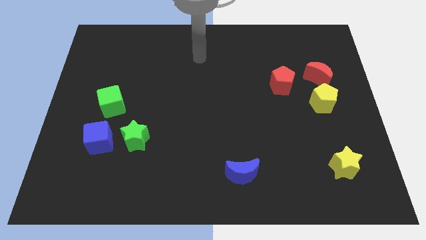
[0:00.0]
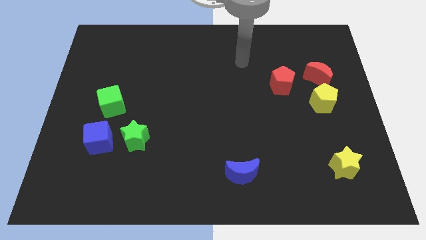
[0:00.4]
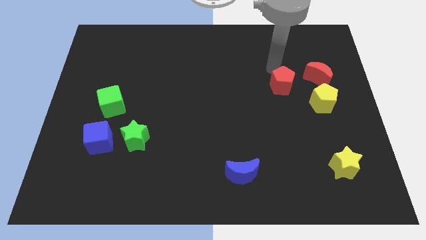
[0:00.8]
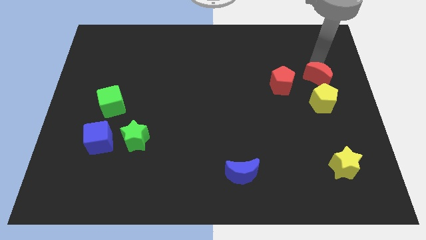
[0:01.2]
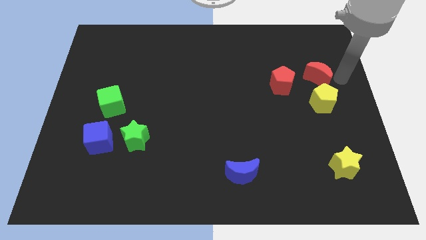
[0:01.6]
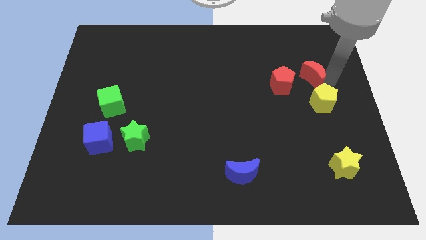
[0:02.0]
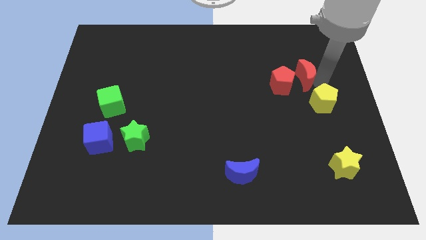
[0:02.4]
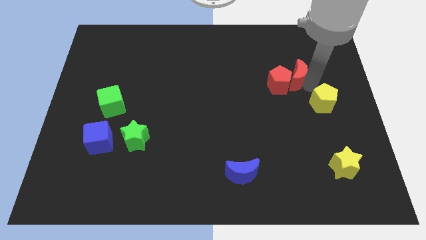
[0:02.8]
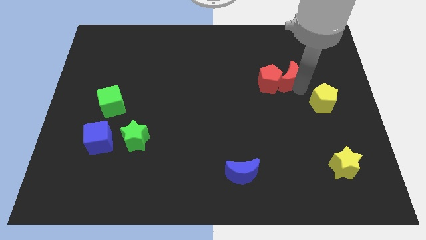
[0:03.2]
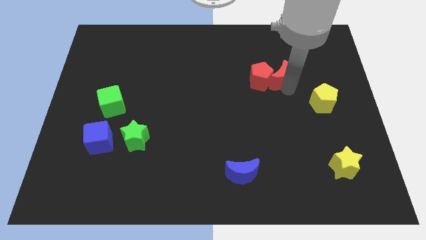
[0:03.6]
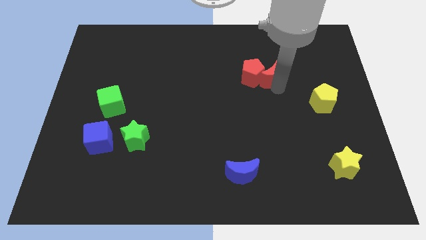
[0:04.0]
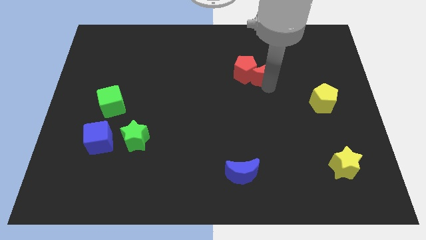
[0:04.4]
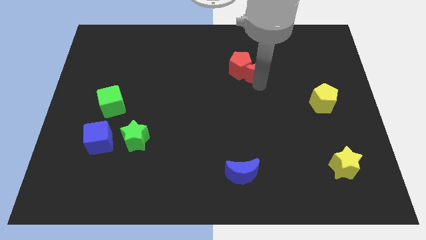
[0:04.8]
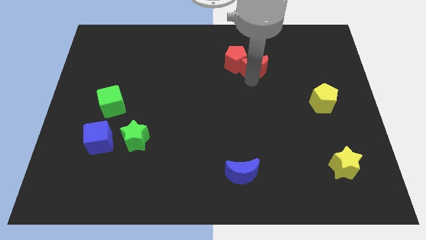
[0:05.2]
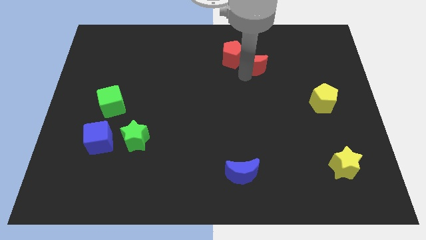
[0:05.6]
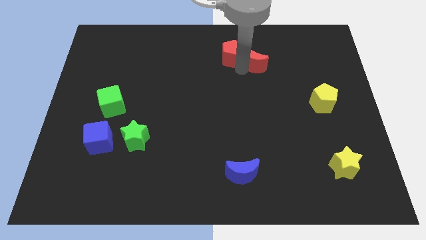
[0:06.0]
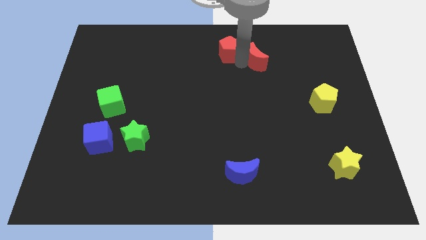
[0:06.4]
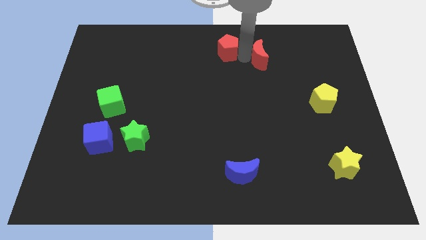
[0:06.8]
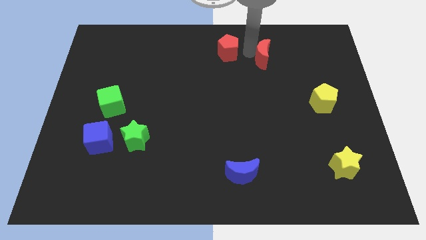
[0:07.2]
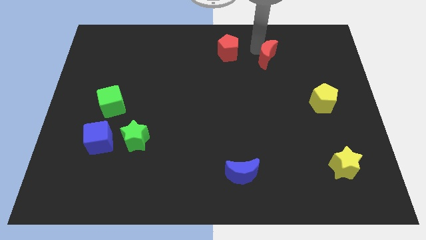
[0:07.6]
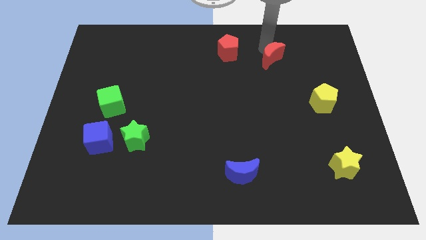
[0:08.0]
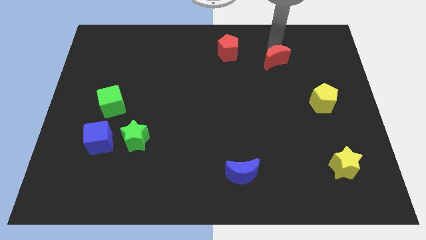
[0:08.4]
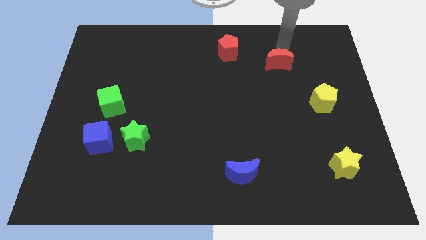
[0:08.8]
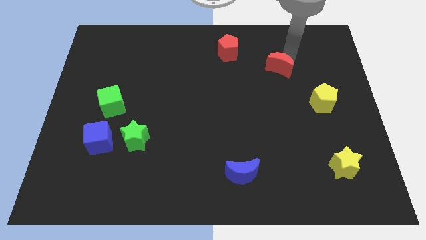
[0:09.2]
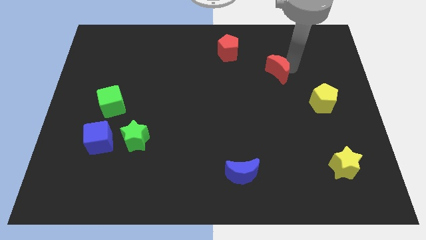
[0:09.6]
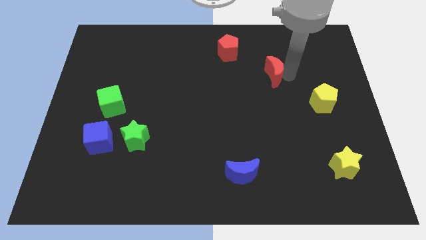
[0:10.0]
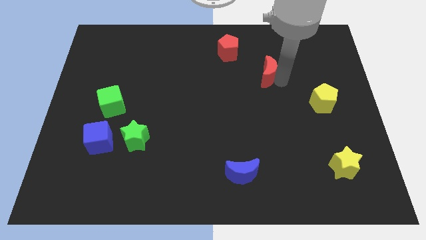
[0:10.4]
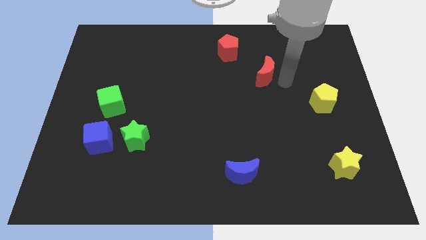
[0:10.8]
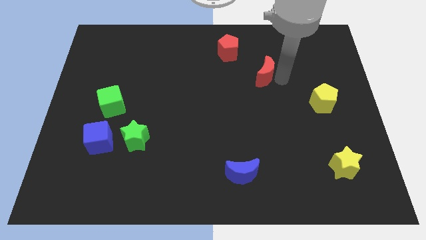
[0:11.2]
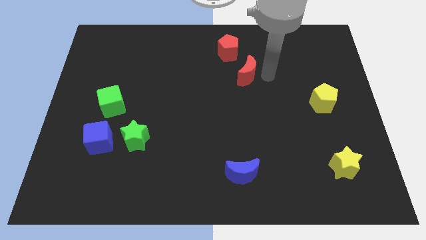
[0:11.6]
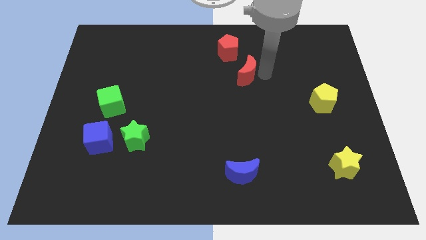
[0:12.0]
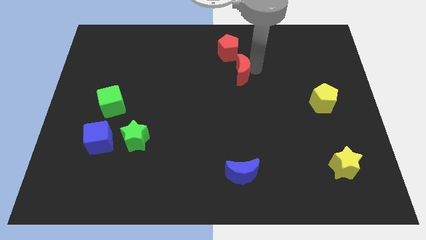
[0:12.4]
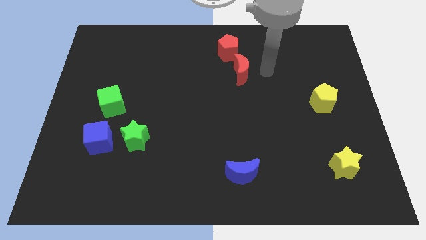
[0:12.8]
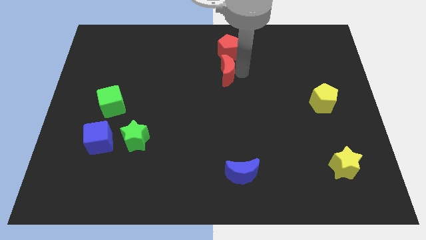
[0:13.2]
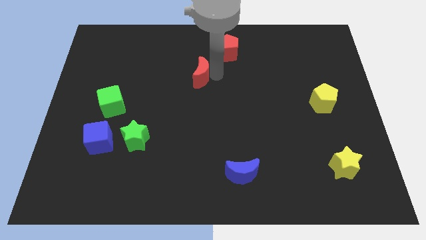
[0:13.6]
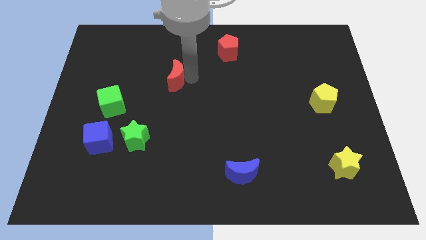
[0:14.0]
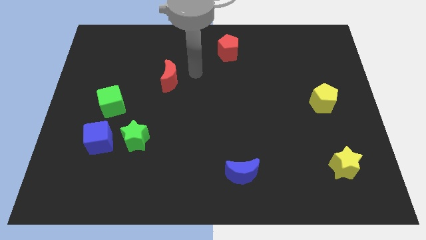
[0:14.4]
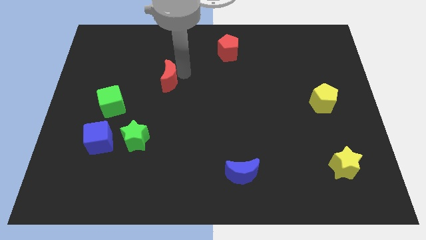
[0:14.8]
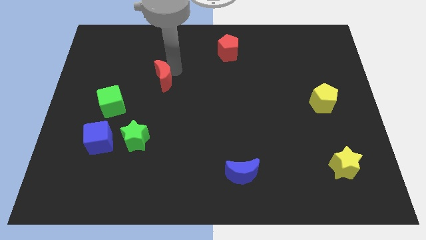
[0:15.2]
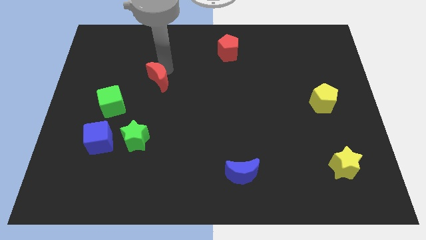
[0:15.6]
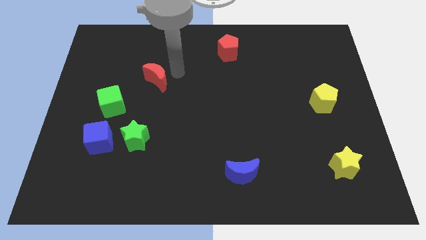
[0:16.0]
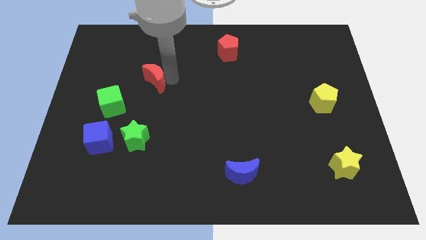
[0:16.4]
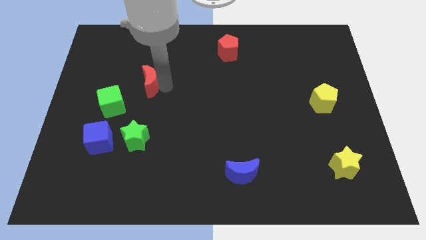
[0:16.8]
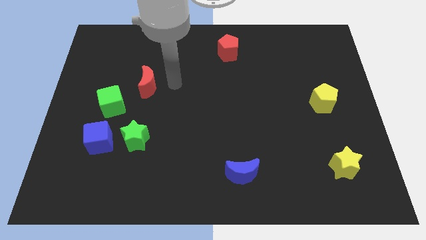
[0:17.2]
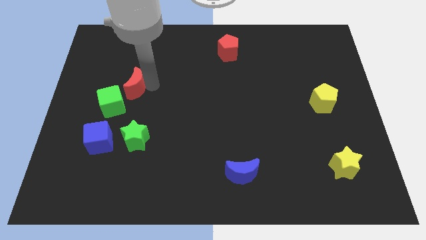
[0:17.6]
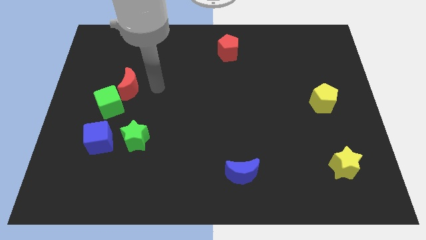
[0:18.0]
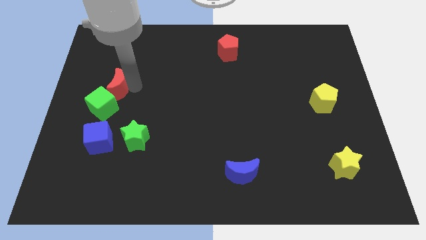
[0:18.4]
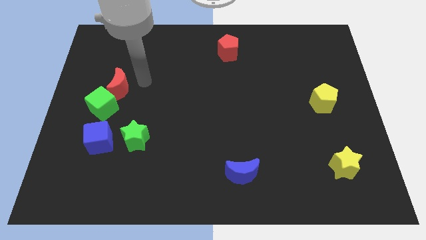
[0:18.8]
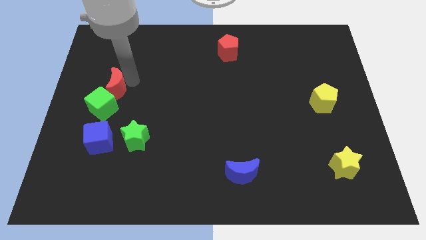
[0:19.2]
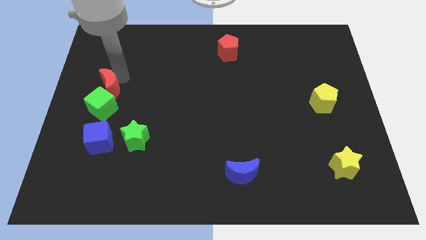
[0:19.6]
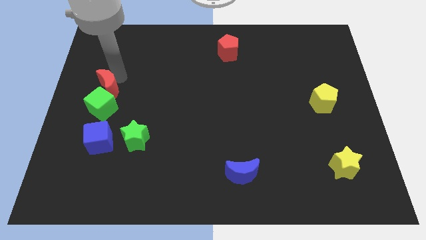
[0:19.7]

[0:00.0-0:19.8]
move the red moon to the left side

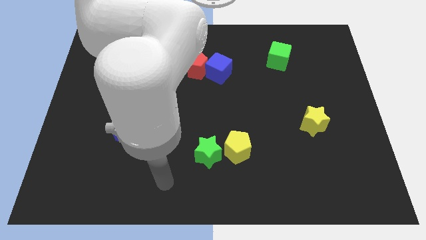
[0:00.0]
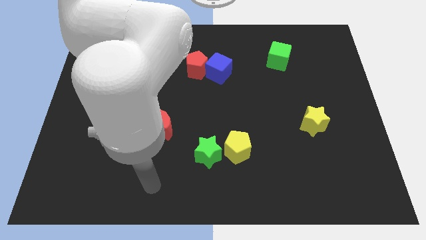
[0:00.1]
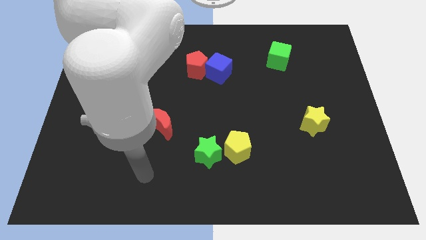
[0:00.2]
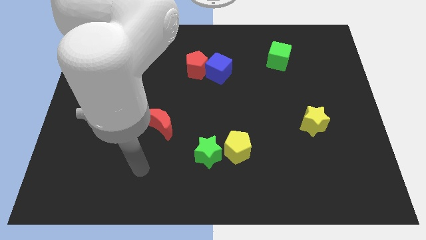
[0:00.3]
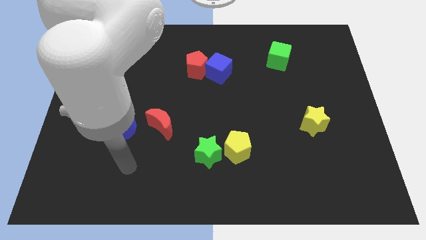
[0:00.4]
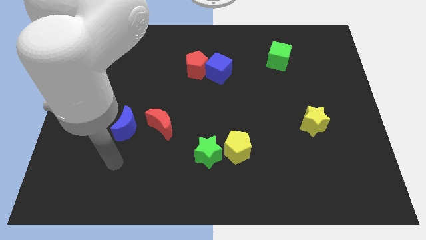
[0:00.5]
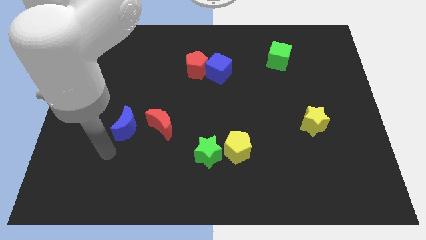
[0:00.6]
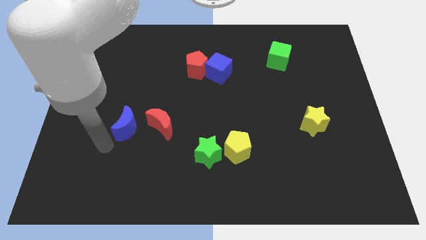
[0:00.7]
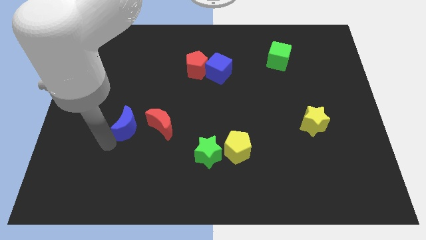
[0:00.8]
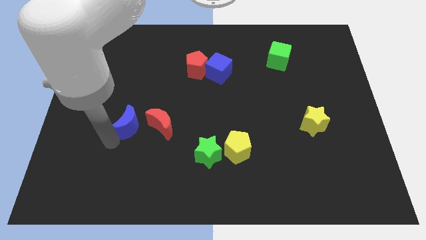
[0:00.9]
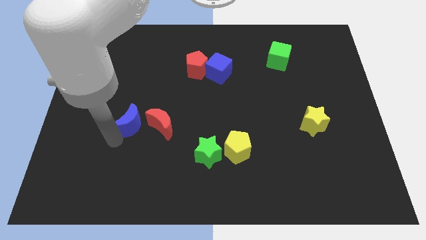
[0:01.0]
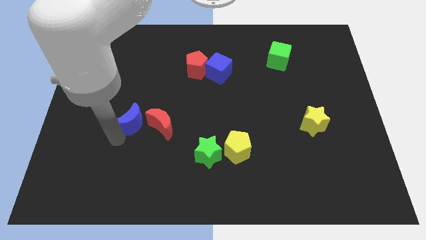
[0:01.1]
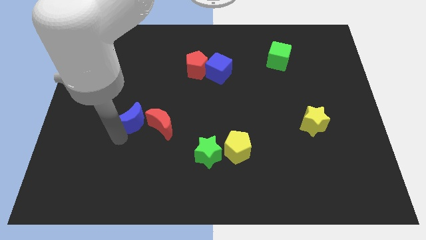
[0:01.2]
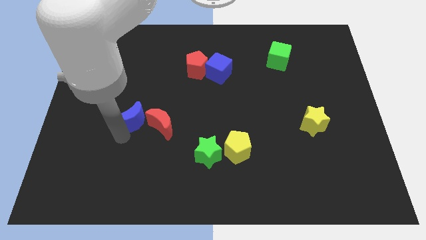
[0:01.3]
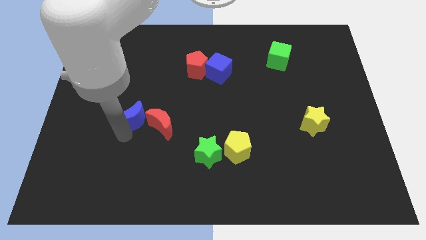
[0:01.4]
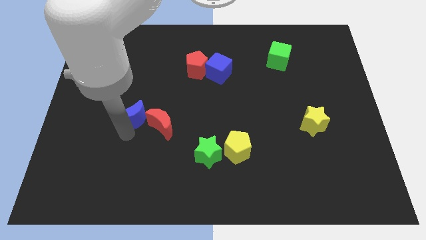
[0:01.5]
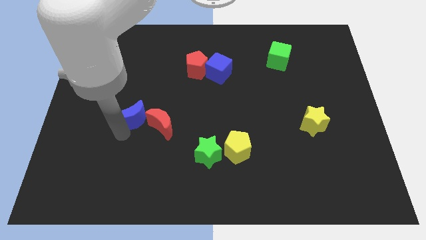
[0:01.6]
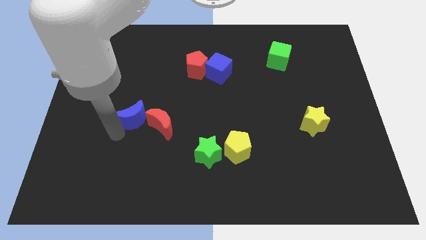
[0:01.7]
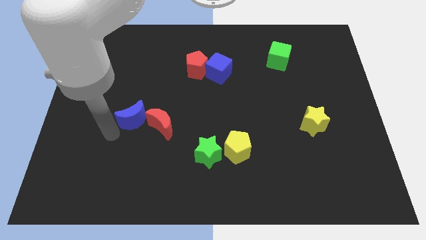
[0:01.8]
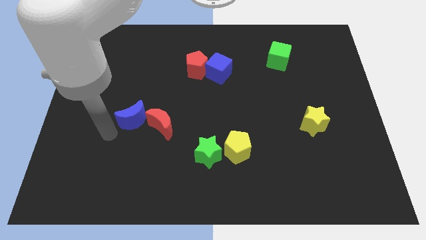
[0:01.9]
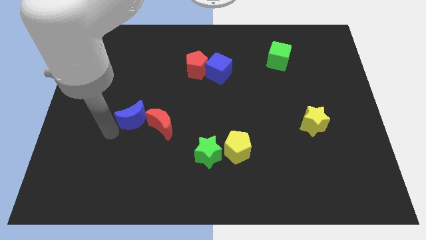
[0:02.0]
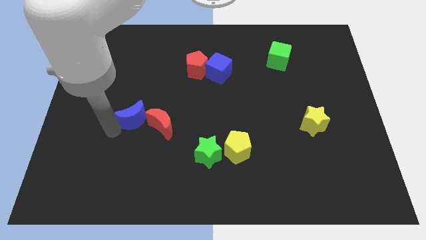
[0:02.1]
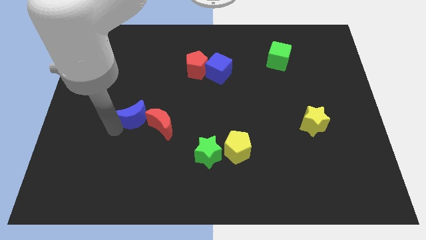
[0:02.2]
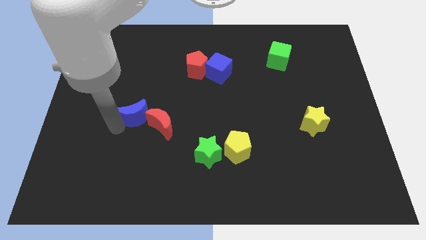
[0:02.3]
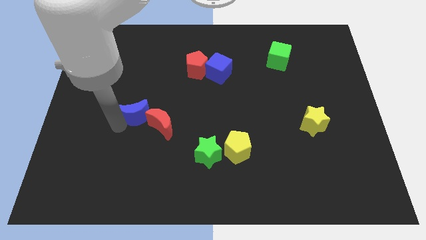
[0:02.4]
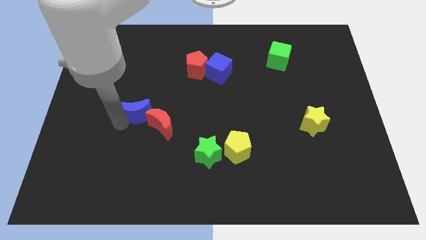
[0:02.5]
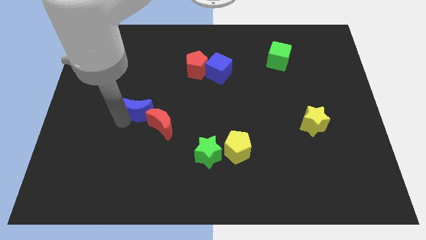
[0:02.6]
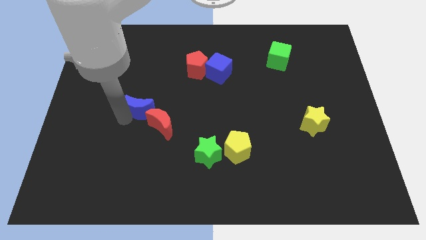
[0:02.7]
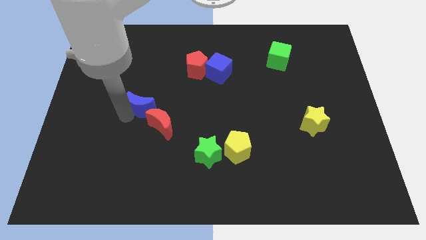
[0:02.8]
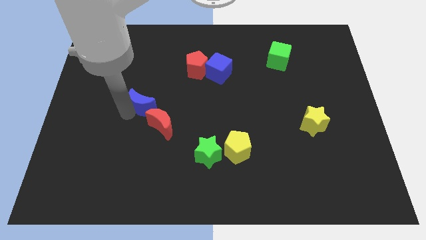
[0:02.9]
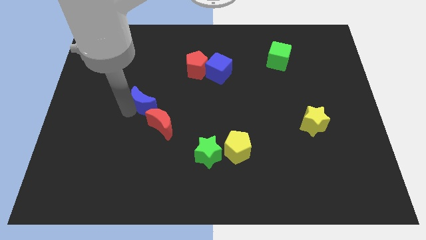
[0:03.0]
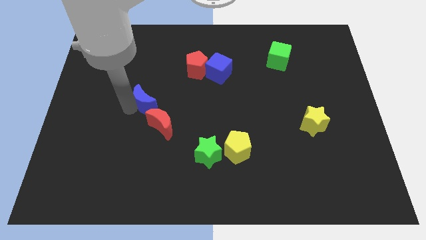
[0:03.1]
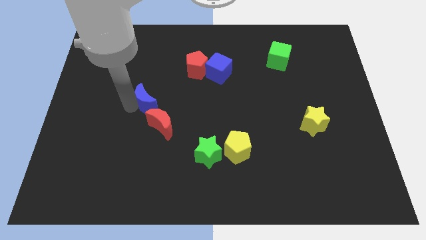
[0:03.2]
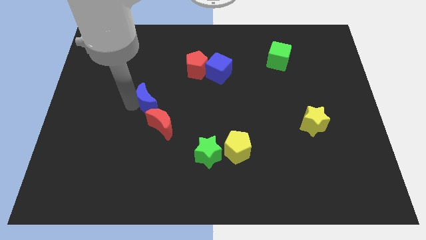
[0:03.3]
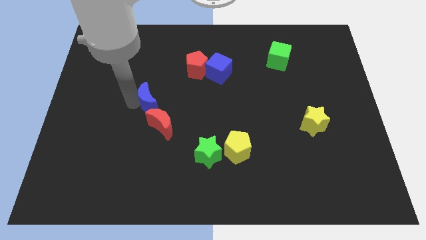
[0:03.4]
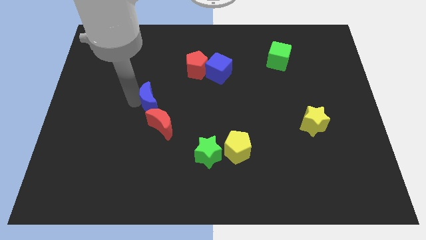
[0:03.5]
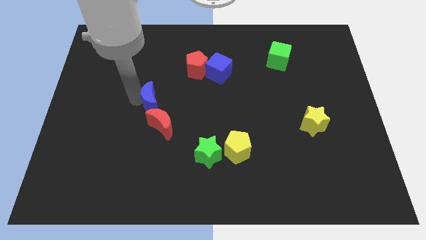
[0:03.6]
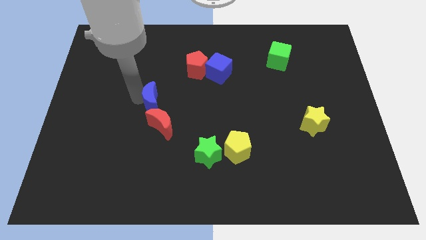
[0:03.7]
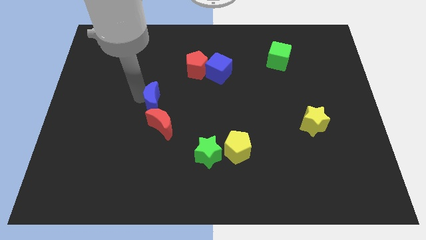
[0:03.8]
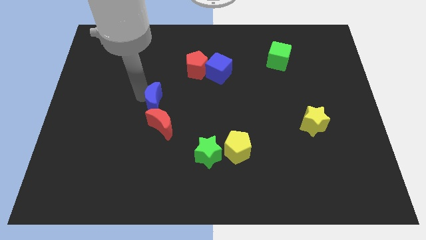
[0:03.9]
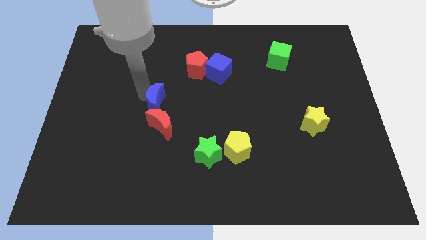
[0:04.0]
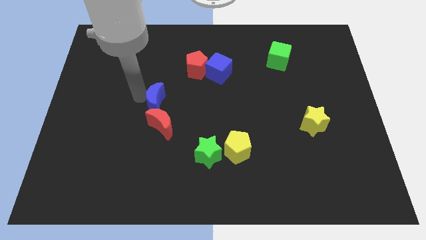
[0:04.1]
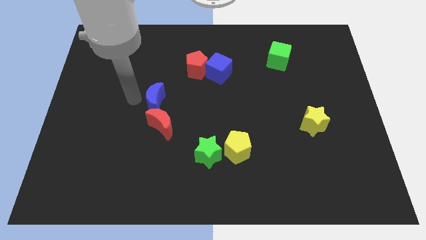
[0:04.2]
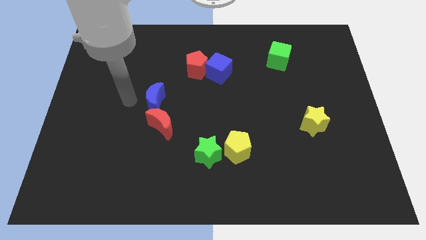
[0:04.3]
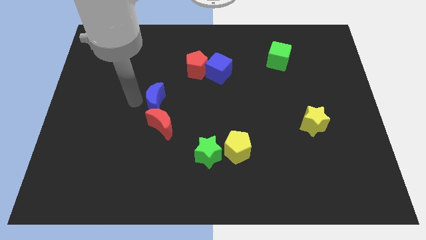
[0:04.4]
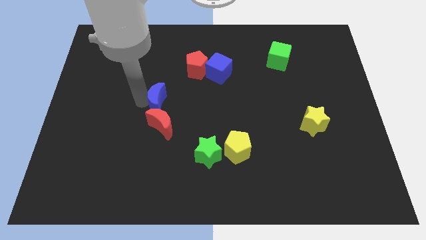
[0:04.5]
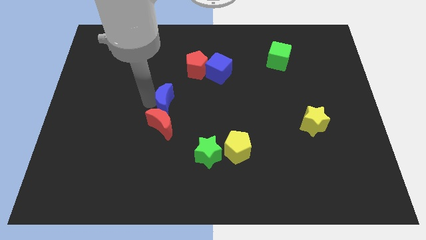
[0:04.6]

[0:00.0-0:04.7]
push the blue moon to the center of the board
